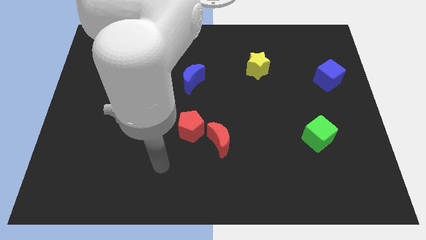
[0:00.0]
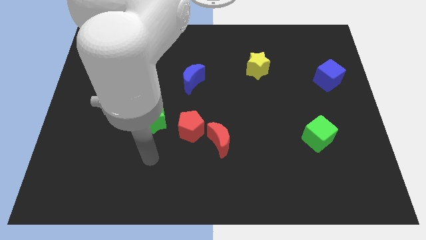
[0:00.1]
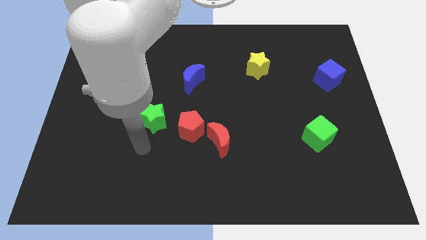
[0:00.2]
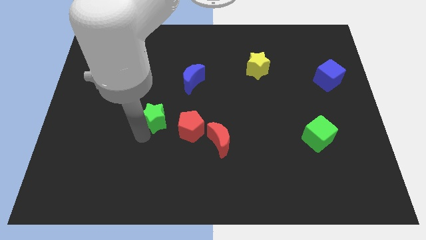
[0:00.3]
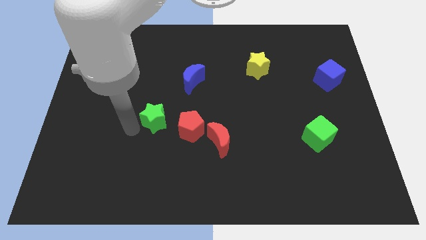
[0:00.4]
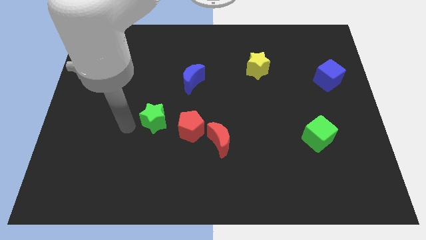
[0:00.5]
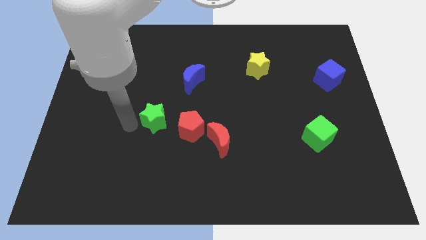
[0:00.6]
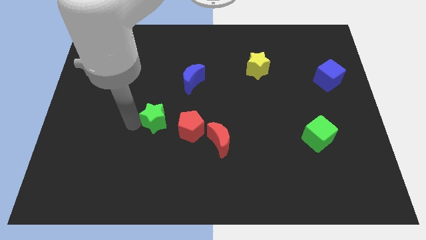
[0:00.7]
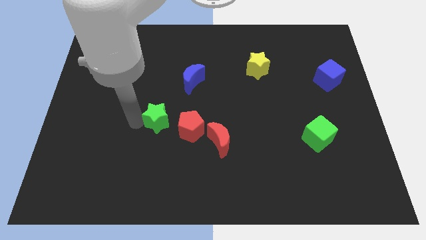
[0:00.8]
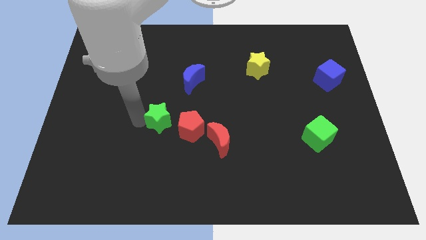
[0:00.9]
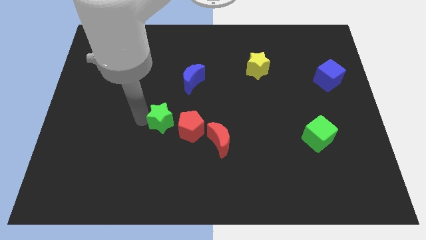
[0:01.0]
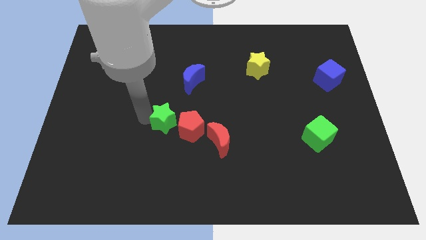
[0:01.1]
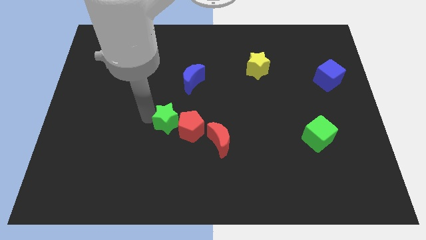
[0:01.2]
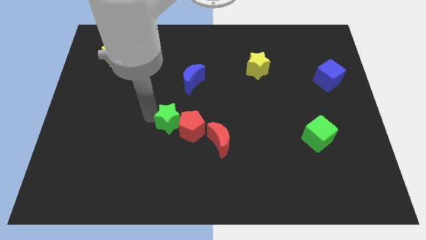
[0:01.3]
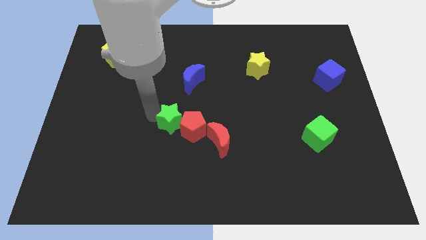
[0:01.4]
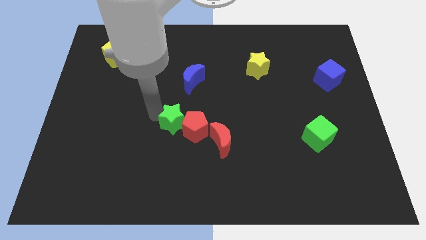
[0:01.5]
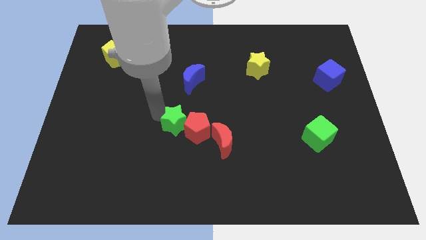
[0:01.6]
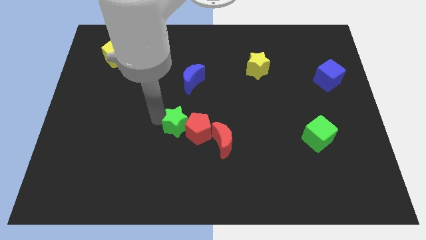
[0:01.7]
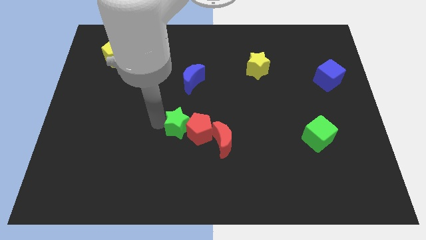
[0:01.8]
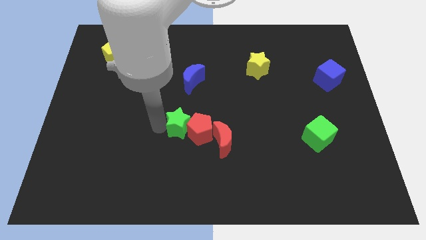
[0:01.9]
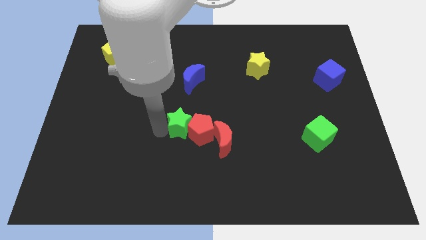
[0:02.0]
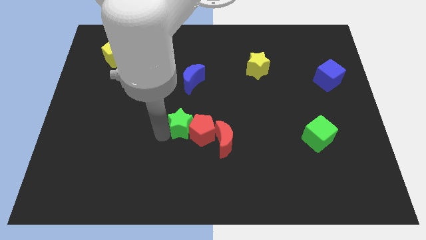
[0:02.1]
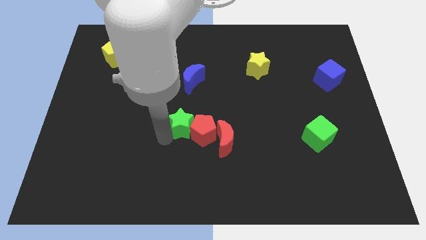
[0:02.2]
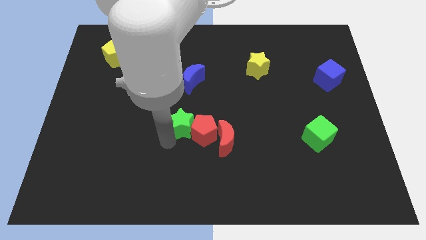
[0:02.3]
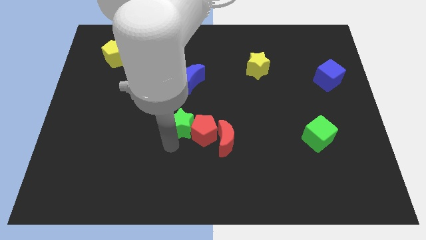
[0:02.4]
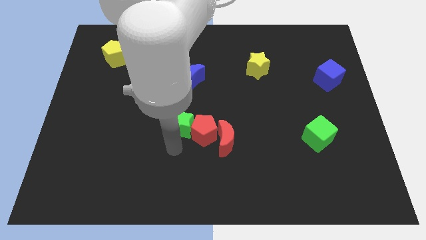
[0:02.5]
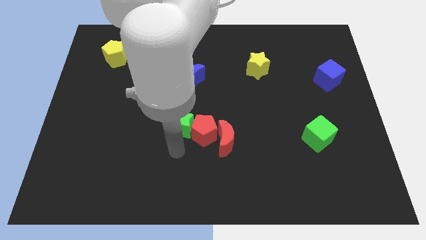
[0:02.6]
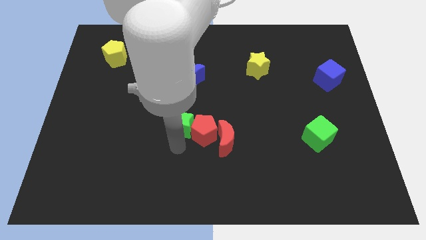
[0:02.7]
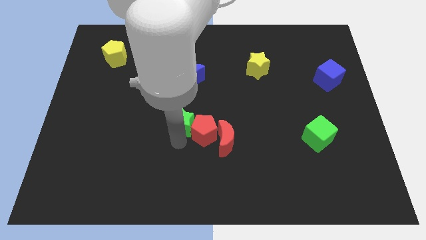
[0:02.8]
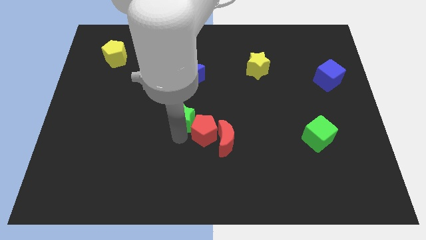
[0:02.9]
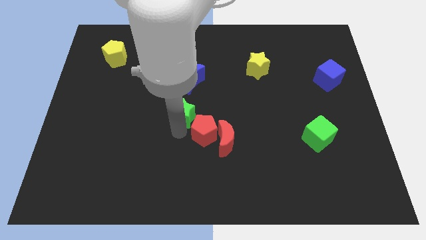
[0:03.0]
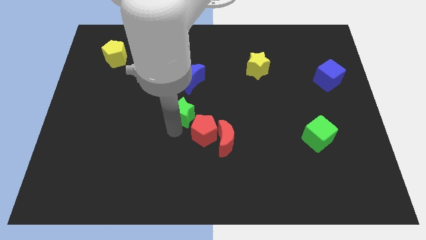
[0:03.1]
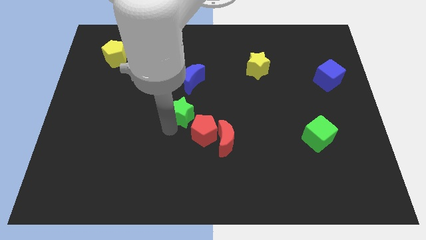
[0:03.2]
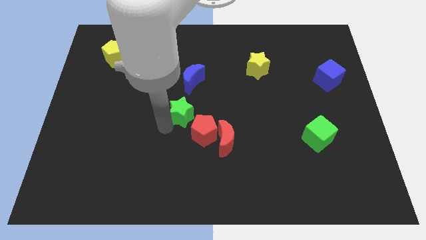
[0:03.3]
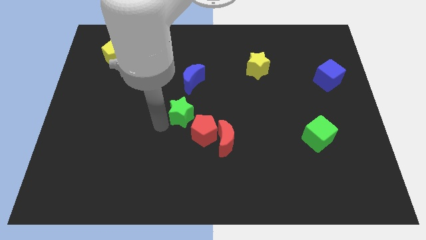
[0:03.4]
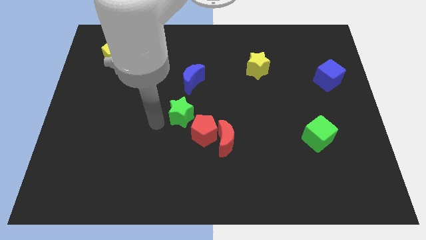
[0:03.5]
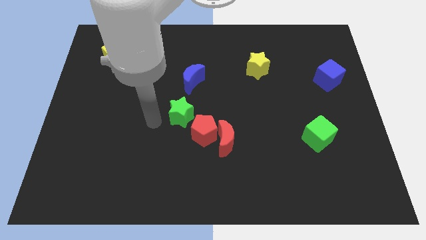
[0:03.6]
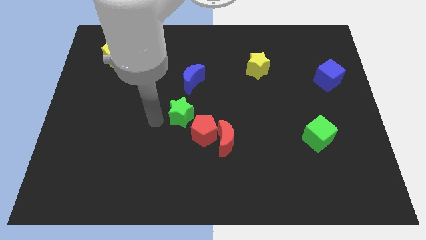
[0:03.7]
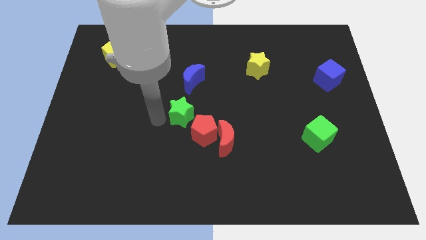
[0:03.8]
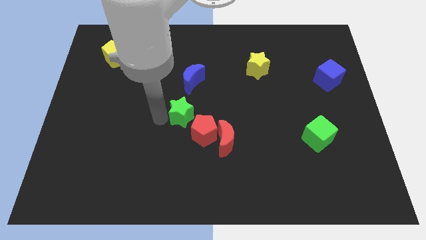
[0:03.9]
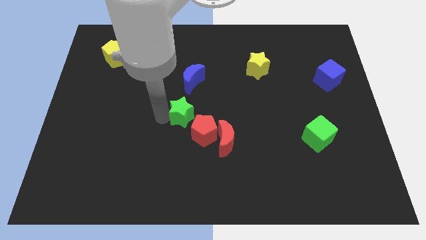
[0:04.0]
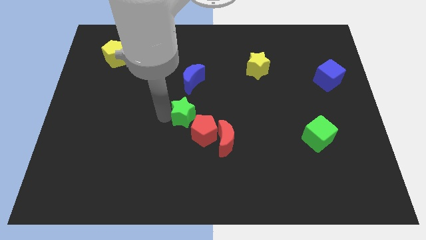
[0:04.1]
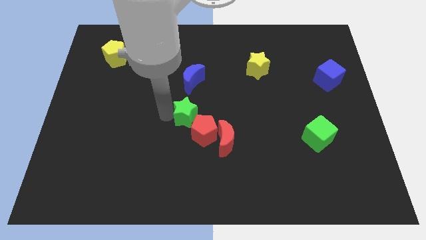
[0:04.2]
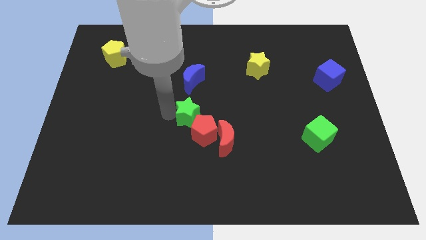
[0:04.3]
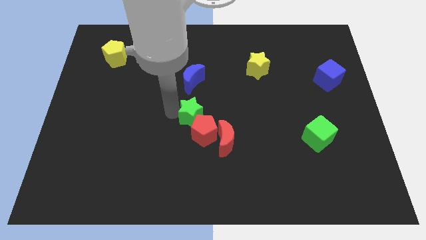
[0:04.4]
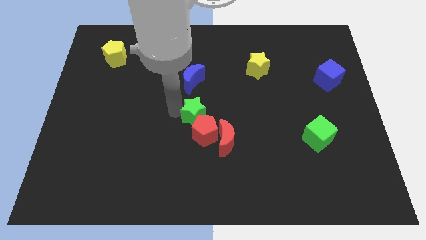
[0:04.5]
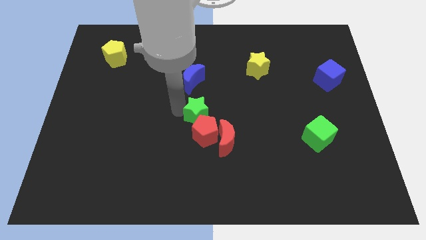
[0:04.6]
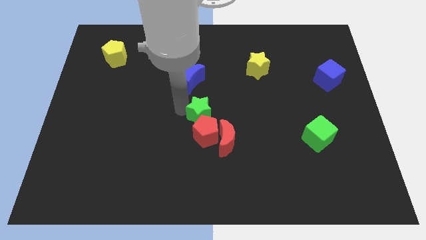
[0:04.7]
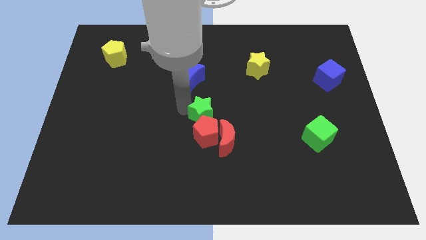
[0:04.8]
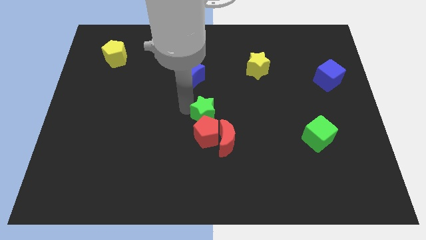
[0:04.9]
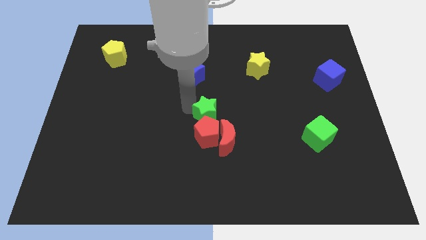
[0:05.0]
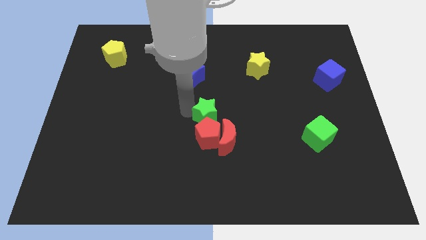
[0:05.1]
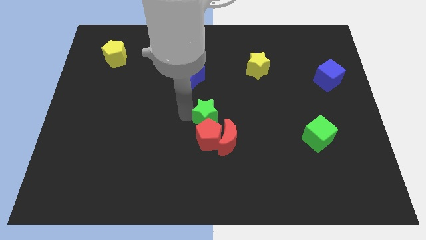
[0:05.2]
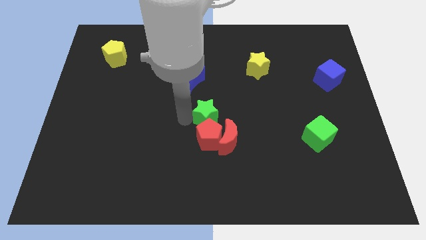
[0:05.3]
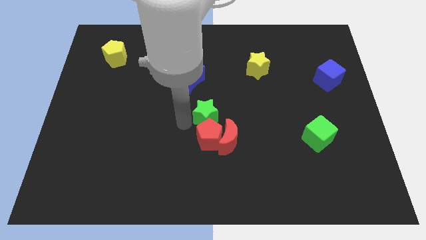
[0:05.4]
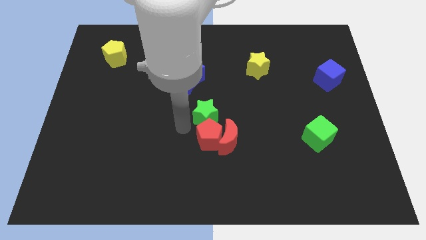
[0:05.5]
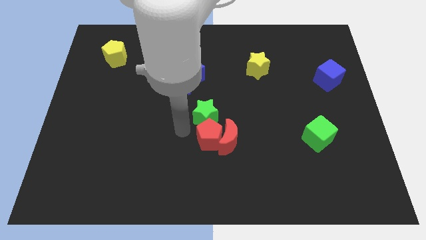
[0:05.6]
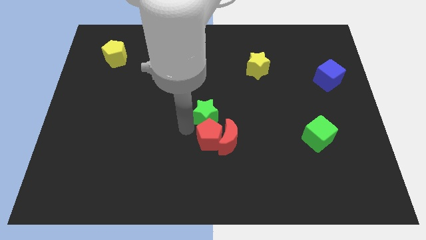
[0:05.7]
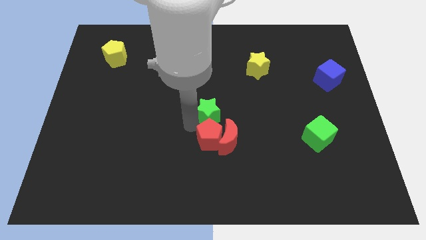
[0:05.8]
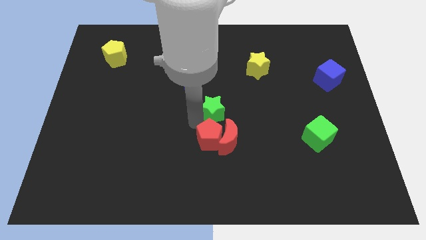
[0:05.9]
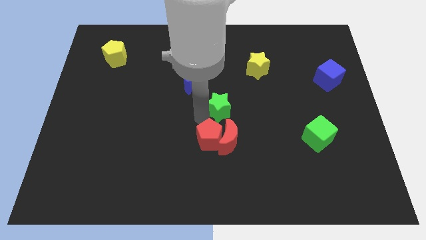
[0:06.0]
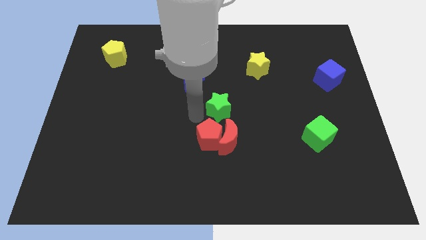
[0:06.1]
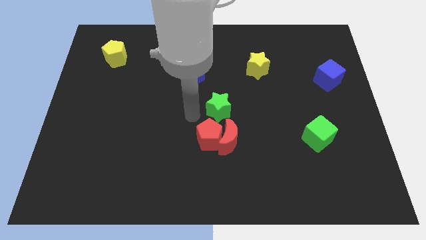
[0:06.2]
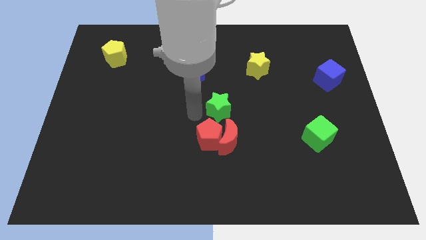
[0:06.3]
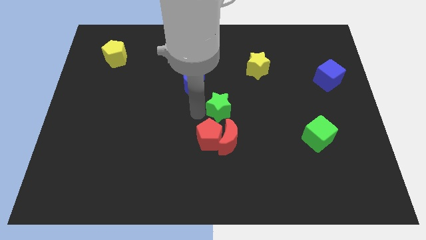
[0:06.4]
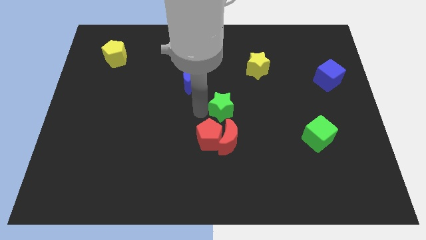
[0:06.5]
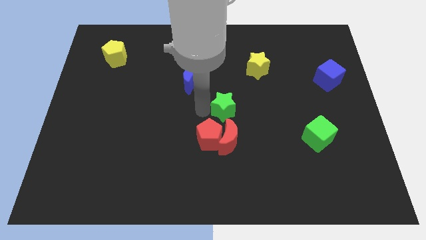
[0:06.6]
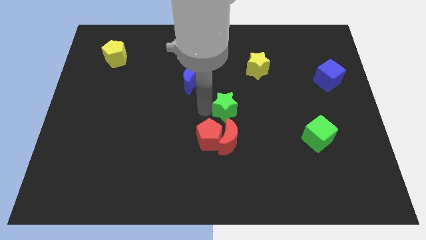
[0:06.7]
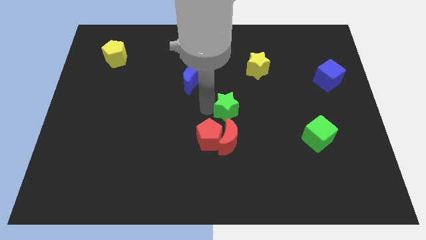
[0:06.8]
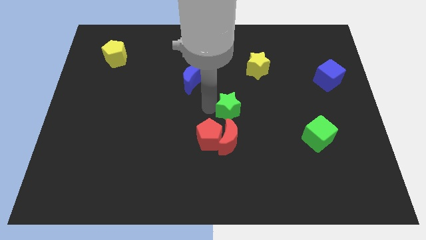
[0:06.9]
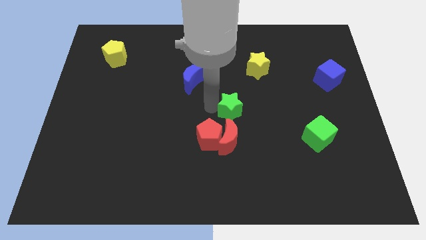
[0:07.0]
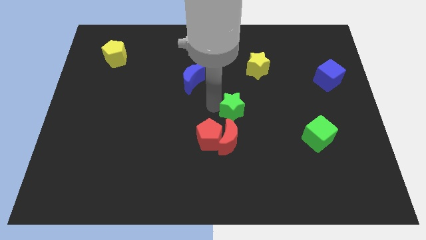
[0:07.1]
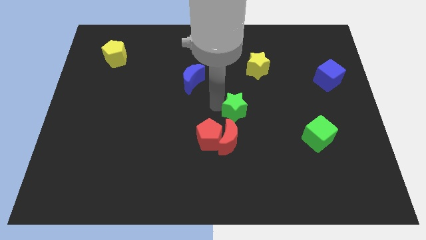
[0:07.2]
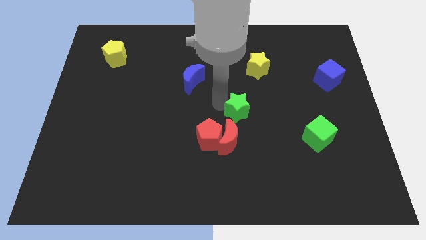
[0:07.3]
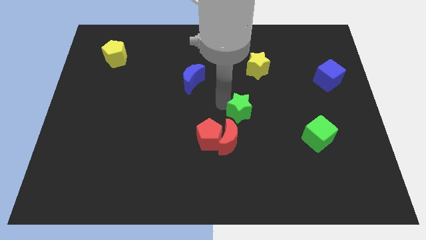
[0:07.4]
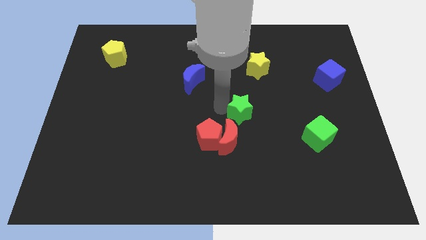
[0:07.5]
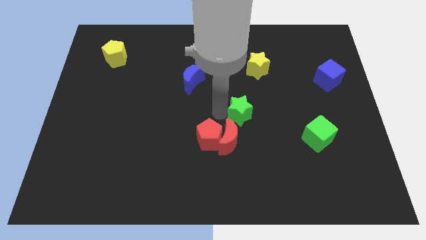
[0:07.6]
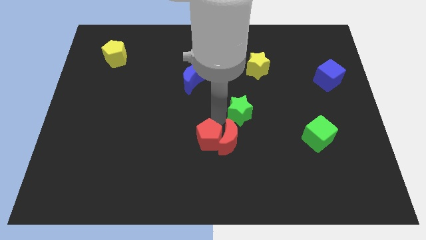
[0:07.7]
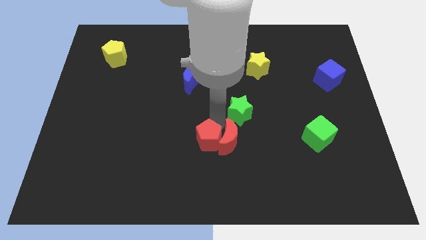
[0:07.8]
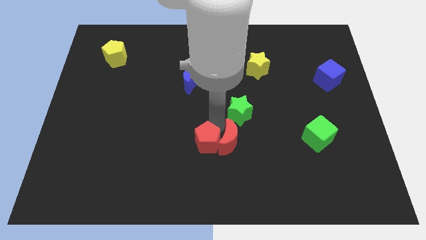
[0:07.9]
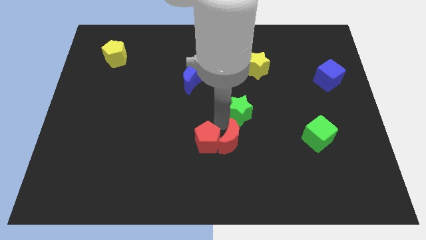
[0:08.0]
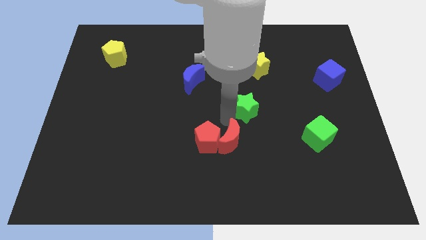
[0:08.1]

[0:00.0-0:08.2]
push the green star to the bottom side of the yellow star
